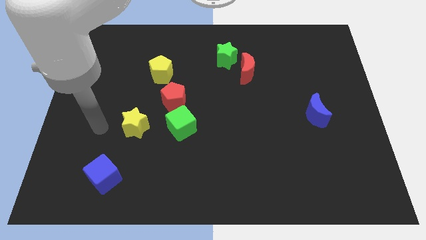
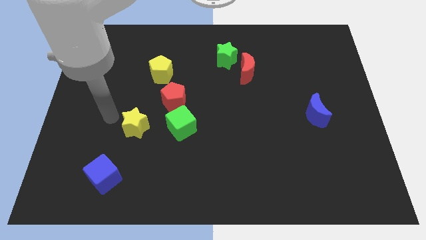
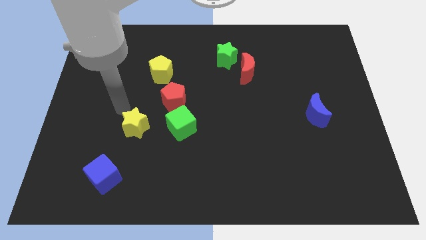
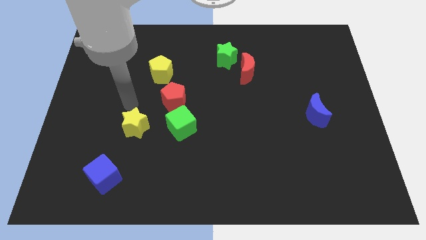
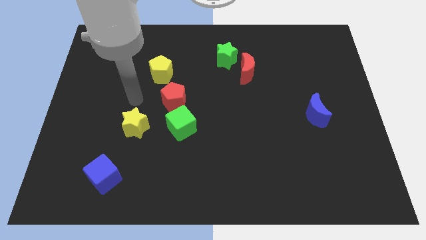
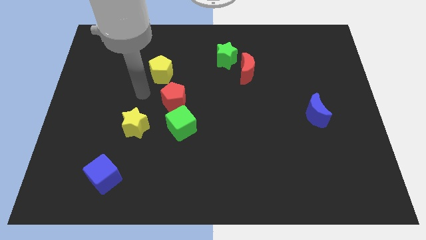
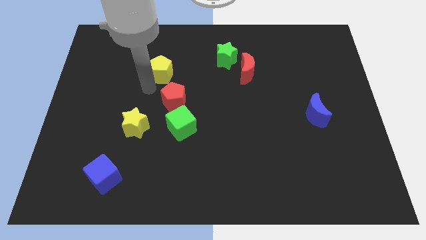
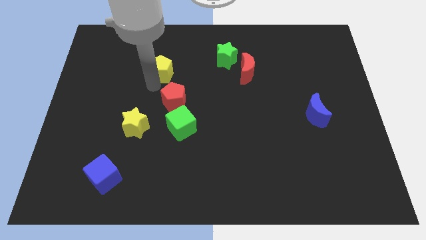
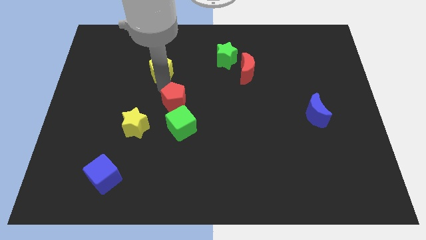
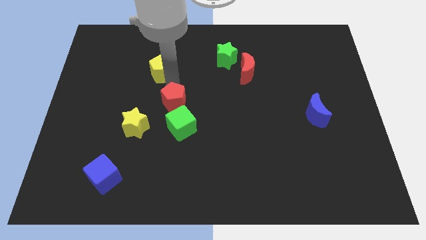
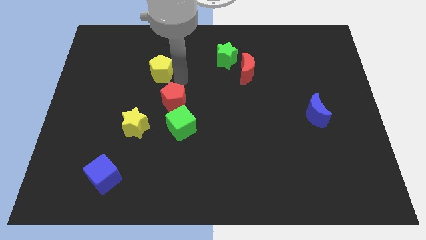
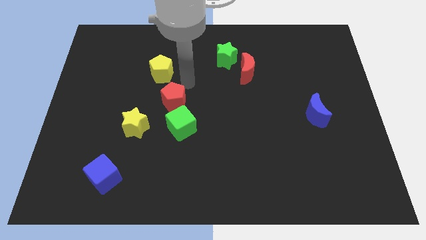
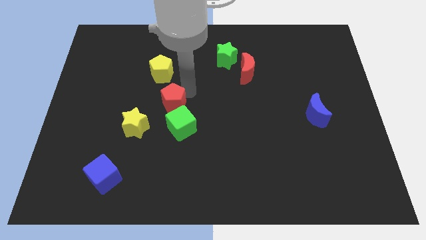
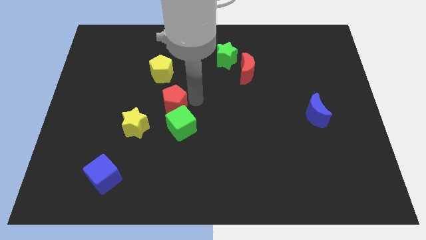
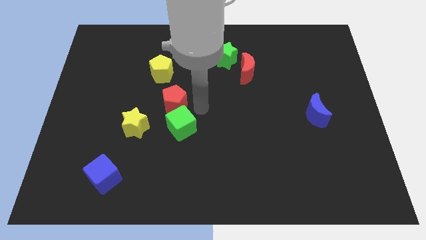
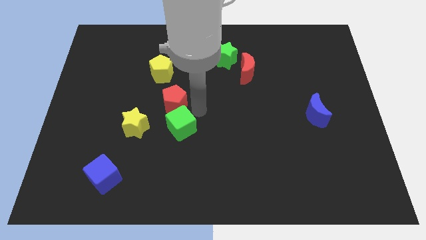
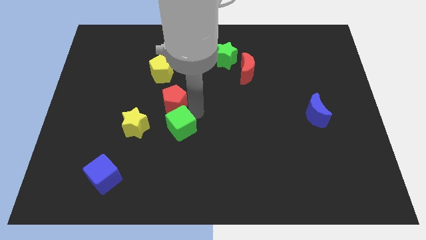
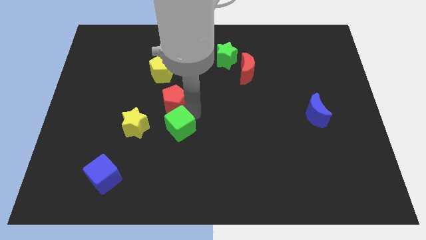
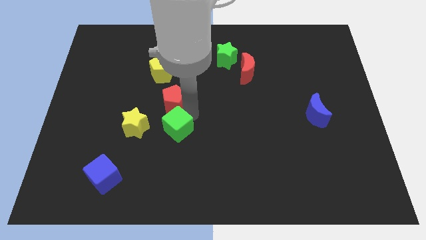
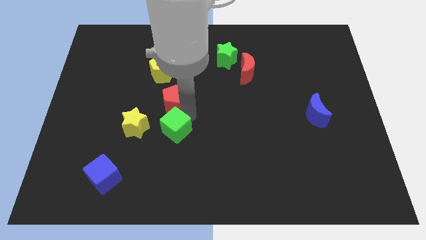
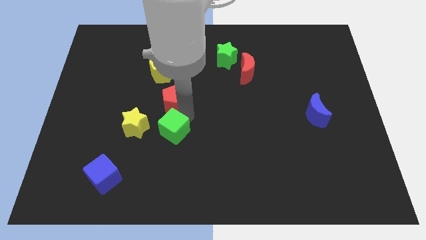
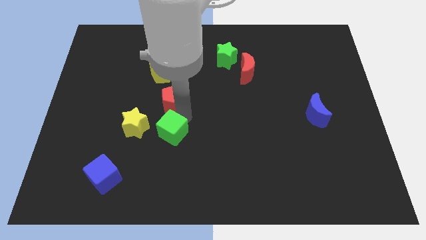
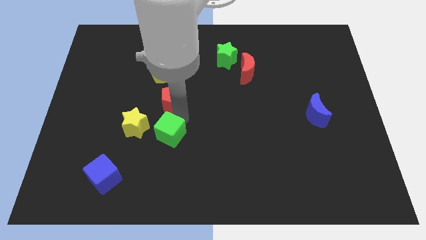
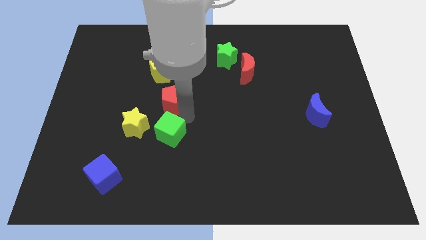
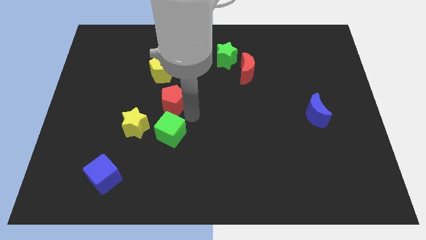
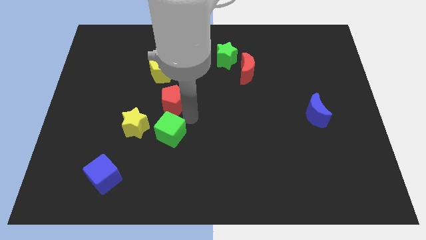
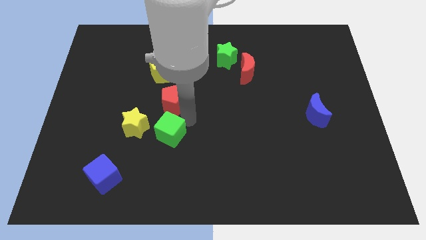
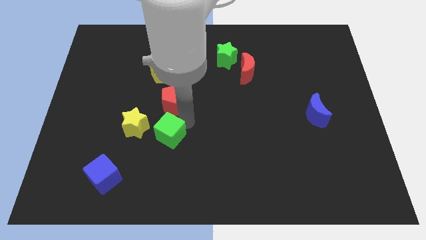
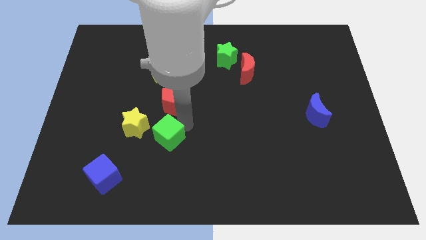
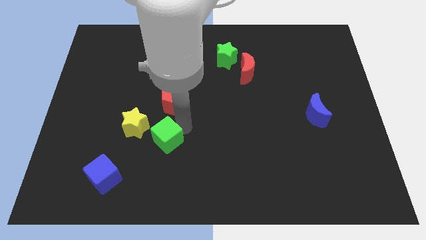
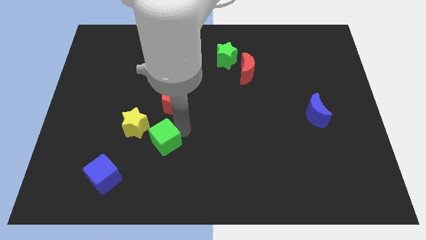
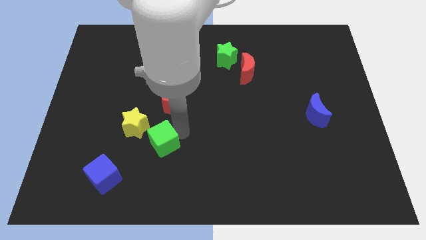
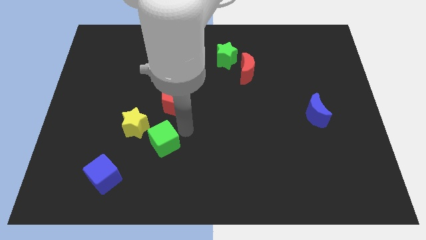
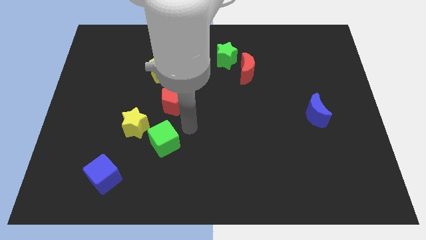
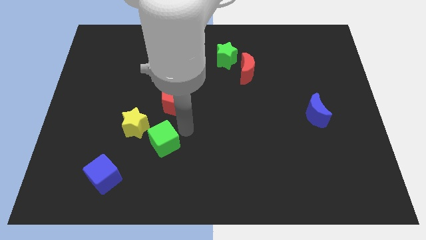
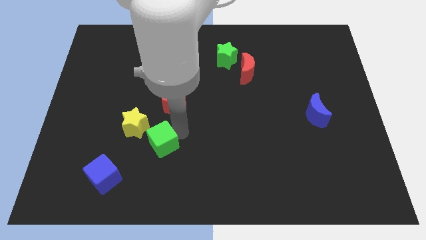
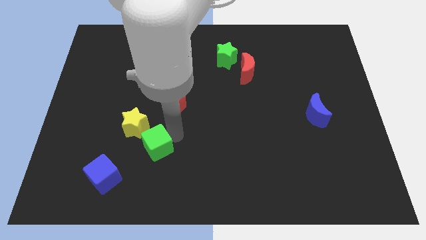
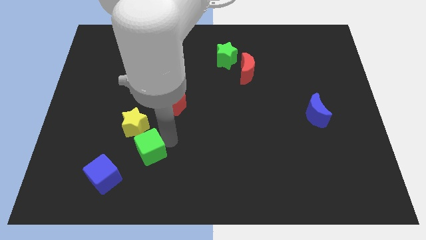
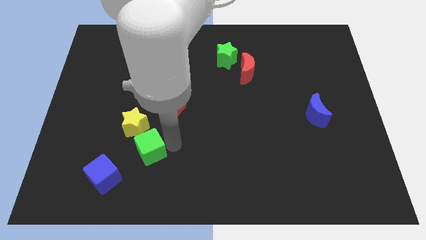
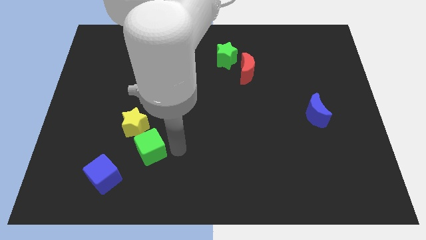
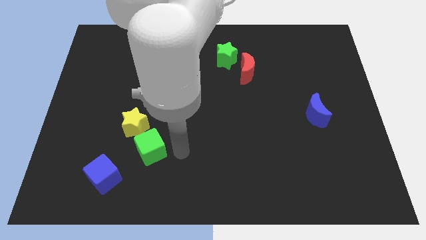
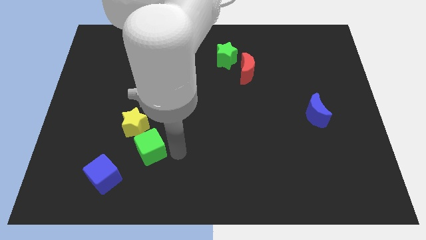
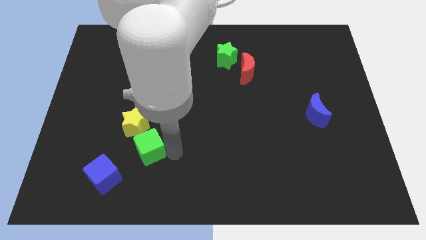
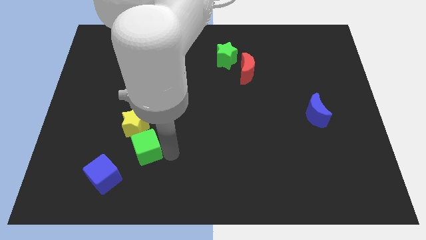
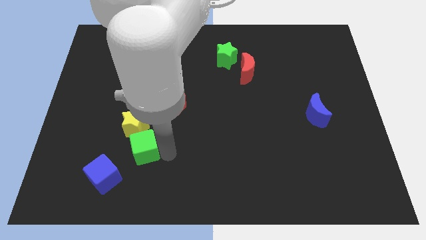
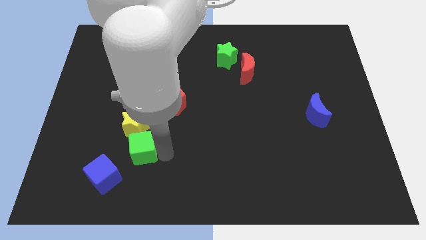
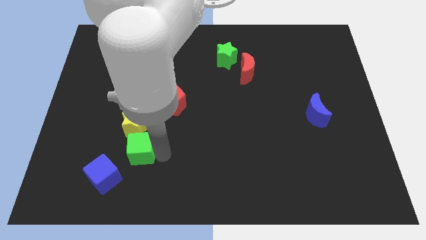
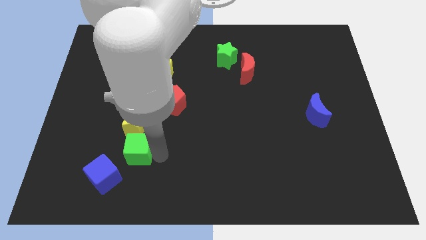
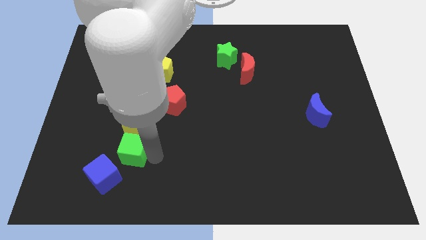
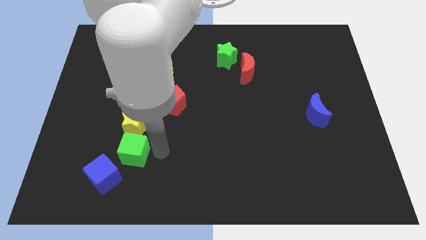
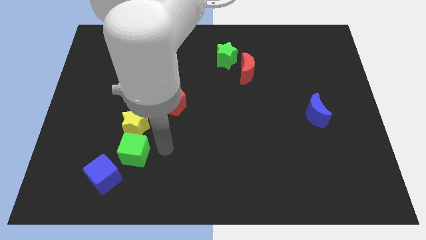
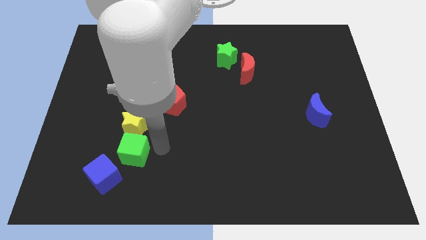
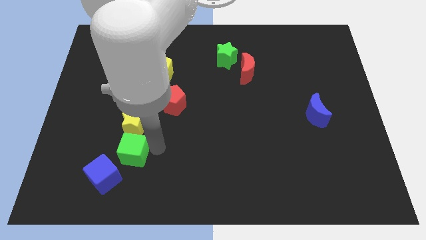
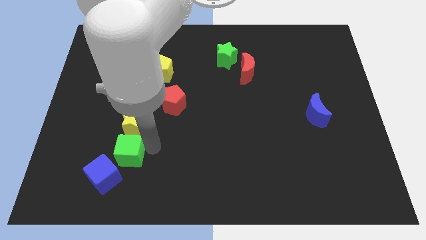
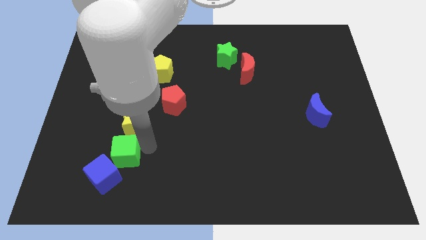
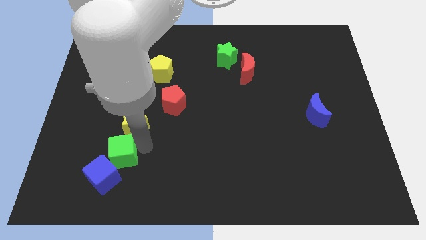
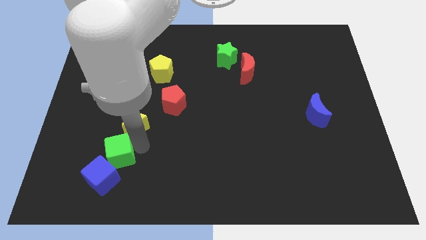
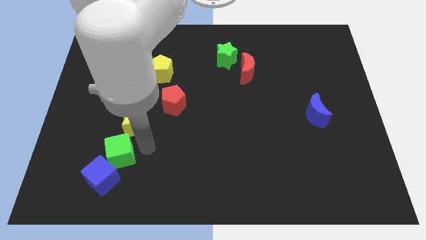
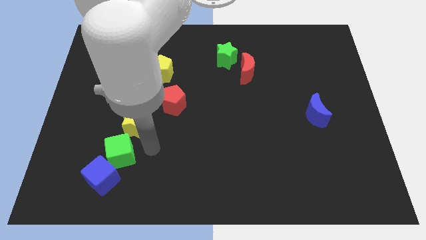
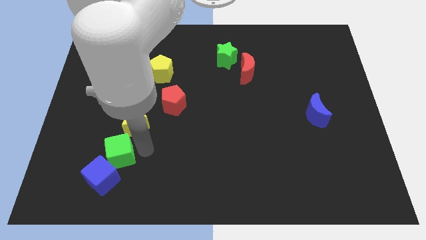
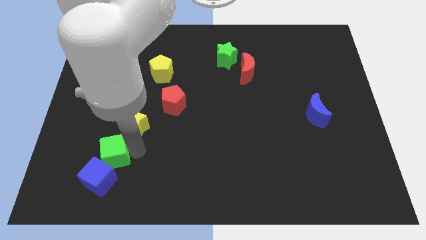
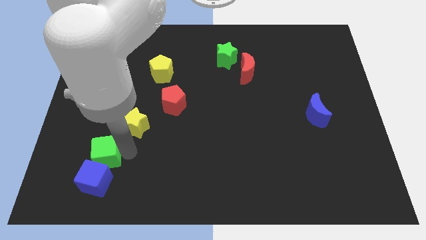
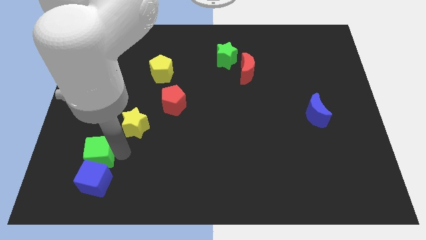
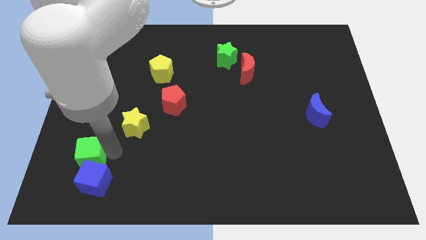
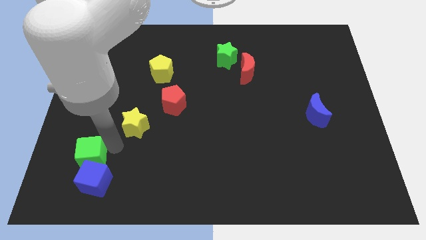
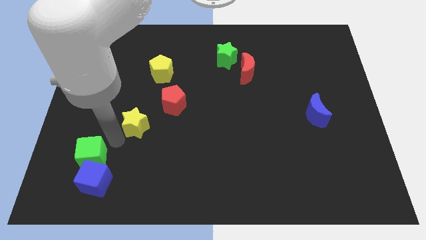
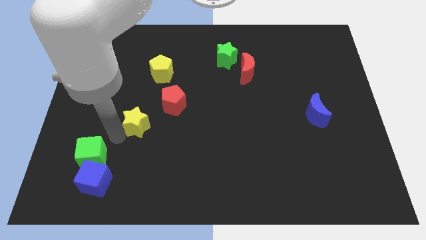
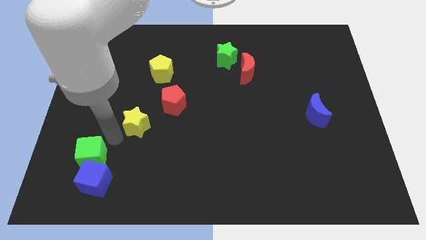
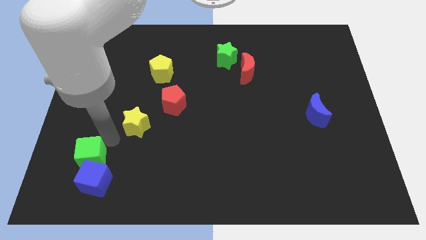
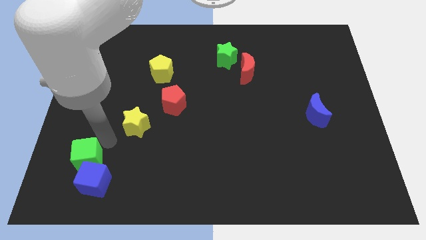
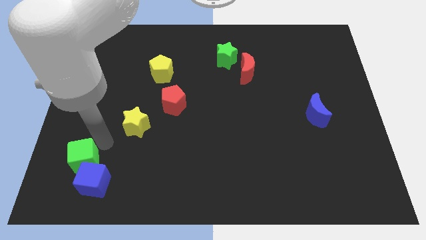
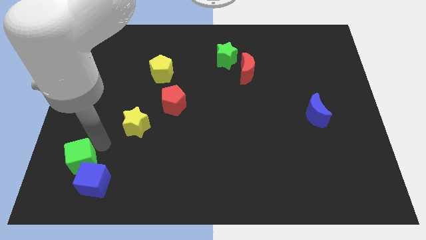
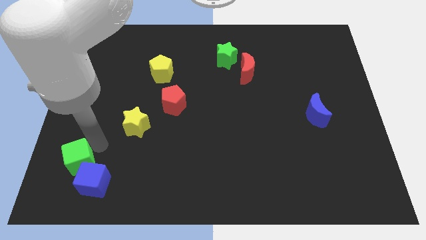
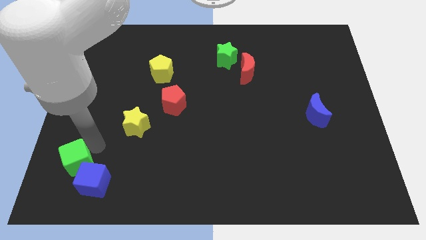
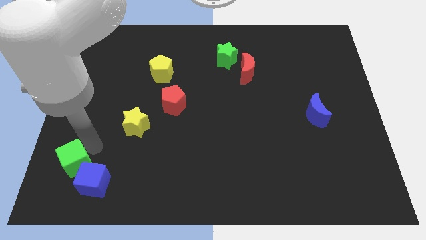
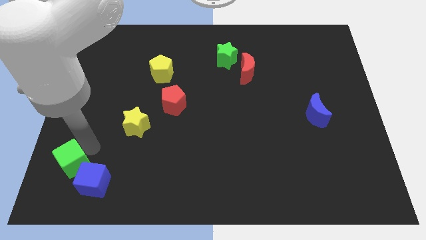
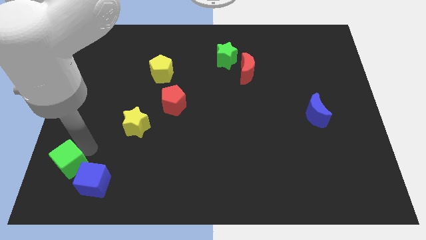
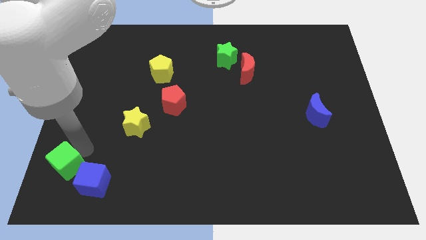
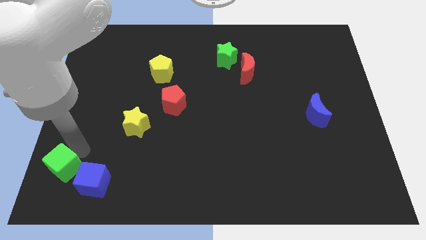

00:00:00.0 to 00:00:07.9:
push the green cube to the bottom left corner
